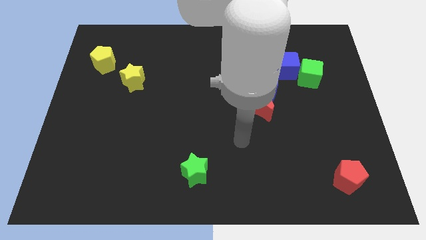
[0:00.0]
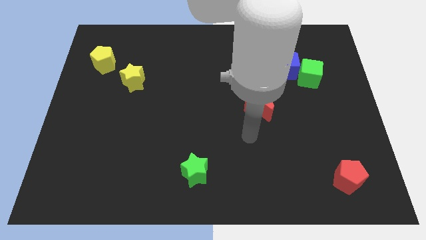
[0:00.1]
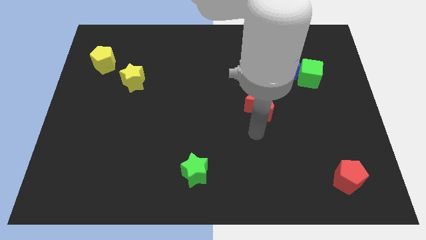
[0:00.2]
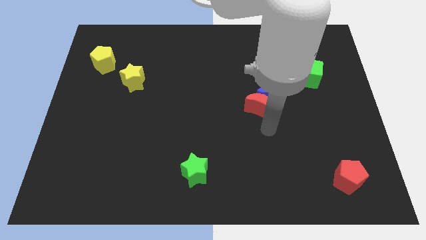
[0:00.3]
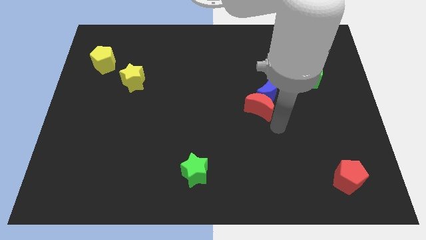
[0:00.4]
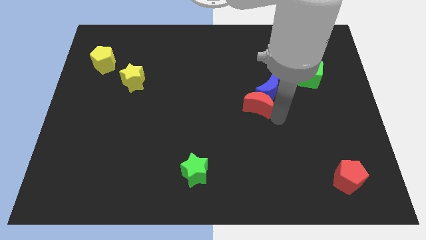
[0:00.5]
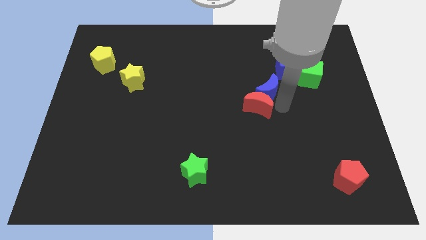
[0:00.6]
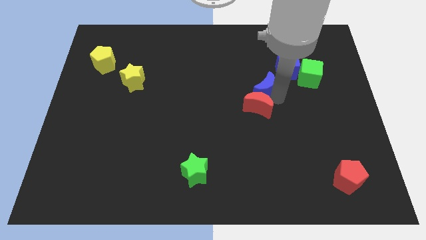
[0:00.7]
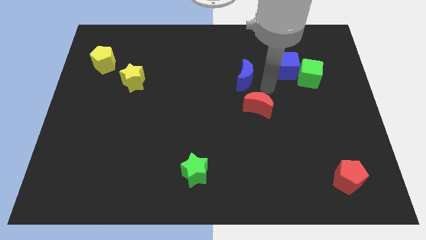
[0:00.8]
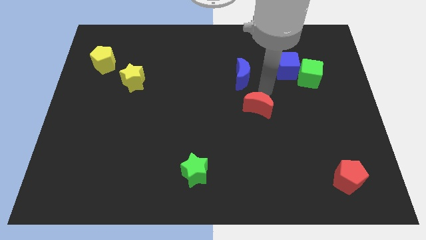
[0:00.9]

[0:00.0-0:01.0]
separate the red moon from the blue moon

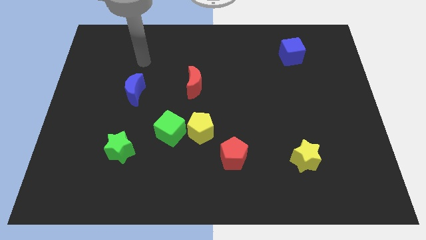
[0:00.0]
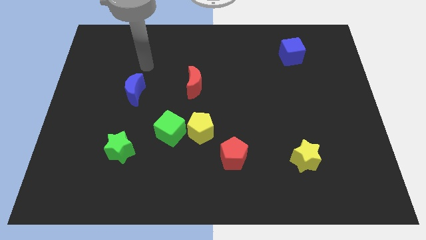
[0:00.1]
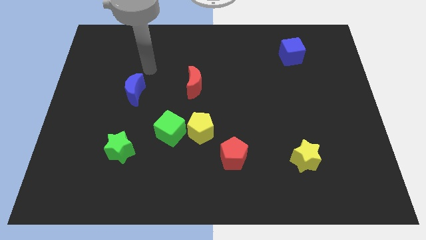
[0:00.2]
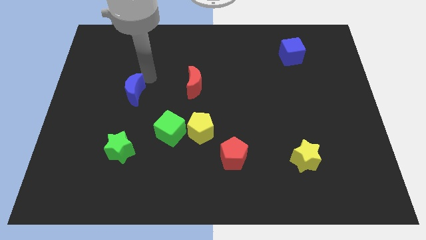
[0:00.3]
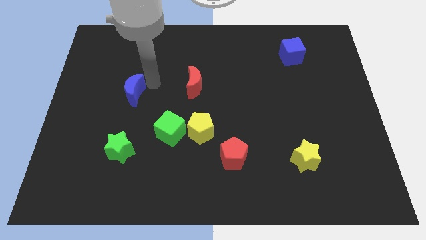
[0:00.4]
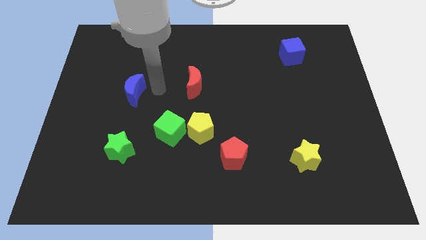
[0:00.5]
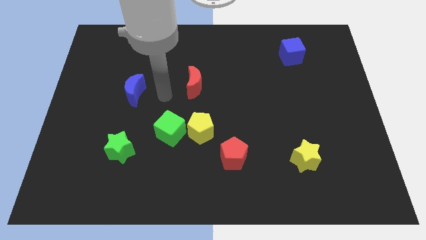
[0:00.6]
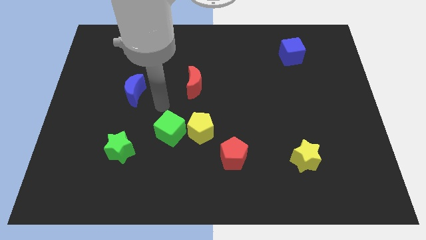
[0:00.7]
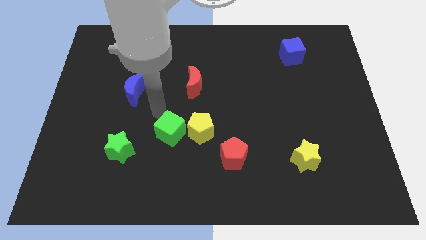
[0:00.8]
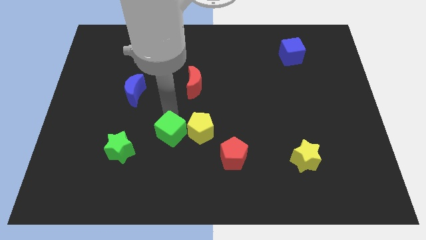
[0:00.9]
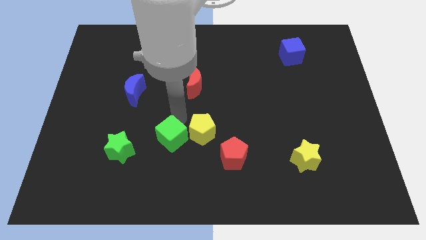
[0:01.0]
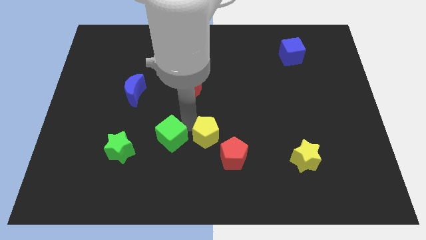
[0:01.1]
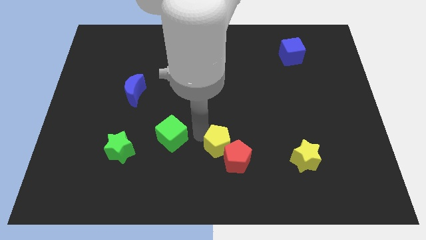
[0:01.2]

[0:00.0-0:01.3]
move the green cube away from the yellow pentagon

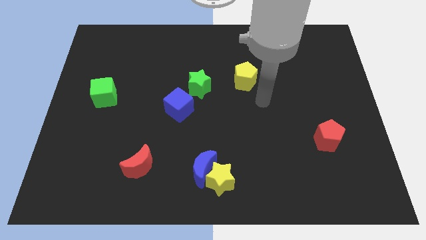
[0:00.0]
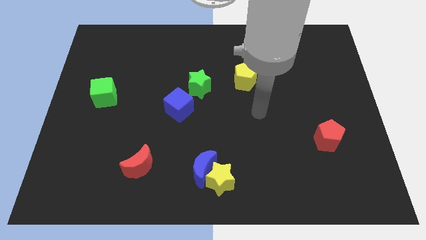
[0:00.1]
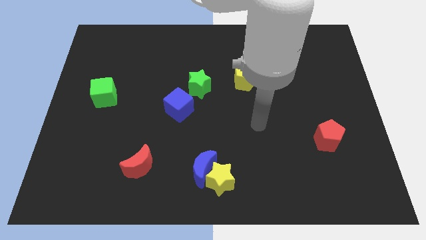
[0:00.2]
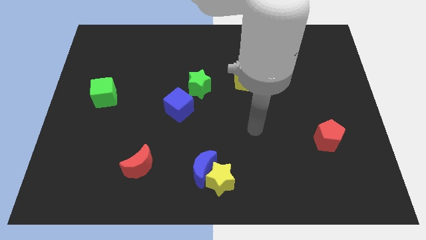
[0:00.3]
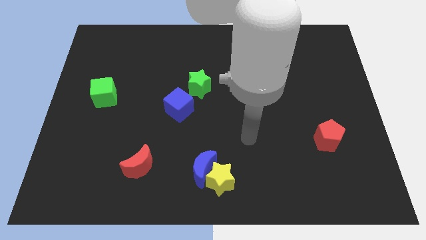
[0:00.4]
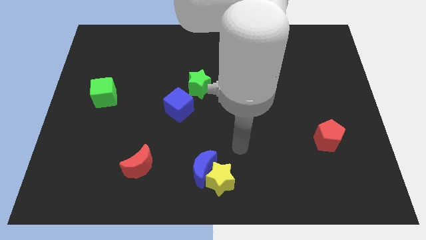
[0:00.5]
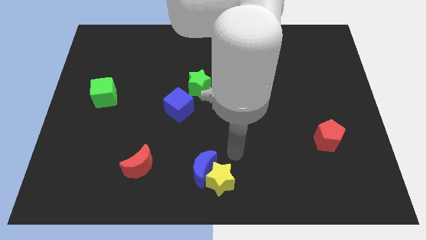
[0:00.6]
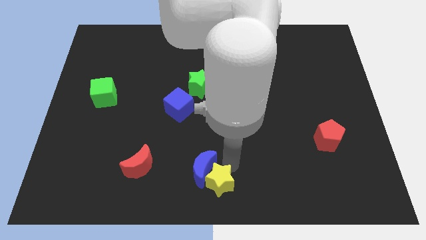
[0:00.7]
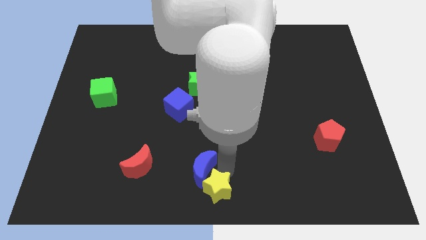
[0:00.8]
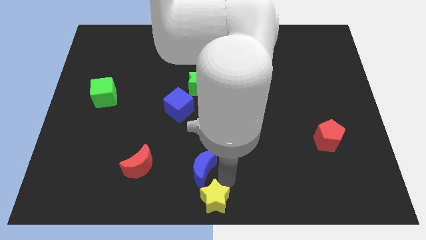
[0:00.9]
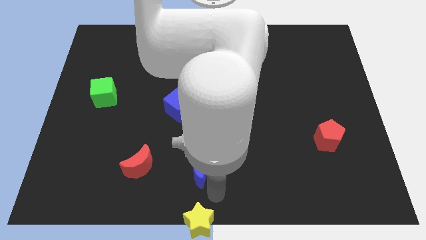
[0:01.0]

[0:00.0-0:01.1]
move the blue moon away from the yellow star

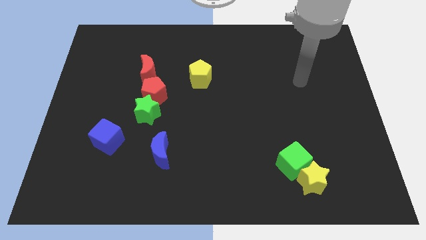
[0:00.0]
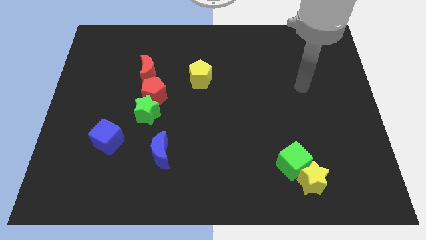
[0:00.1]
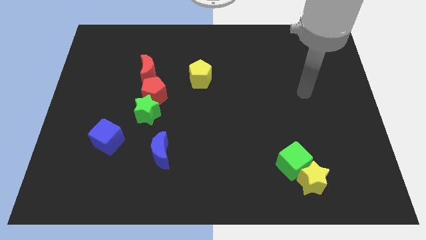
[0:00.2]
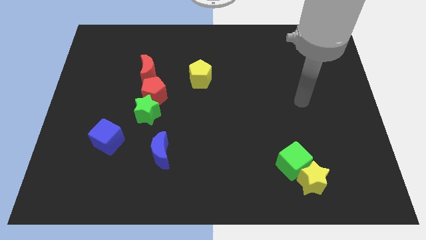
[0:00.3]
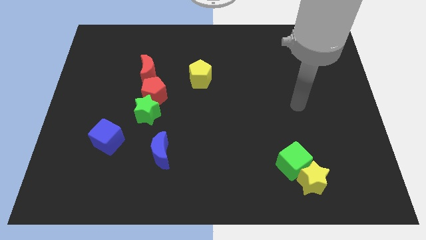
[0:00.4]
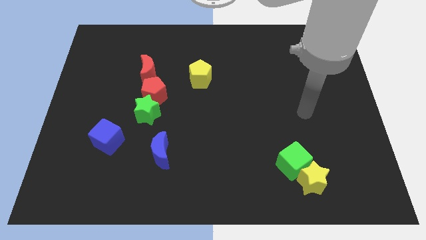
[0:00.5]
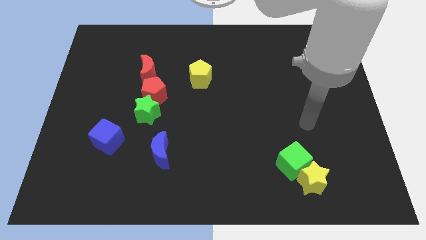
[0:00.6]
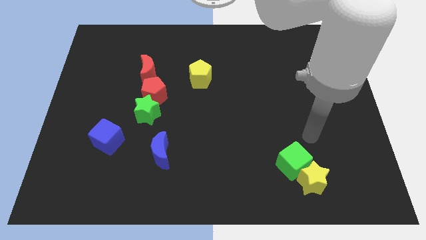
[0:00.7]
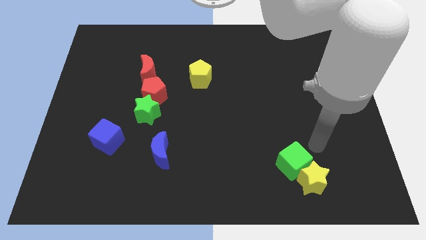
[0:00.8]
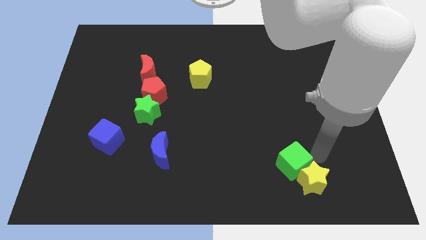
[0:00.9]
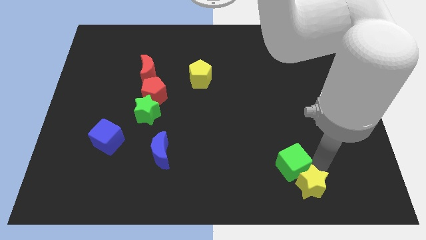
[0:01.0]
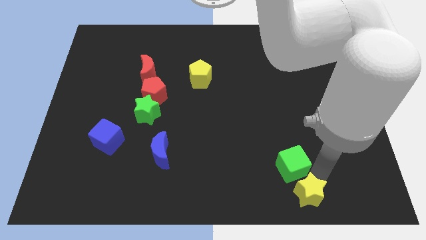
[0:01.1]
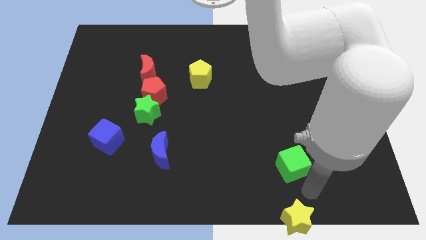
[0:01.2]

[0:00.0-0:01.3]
pull the green cube apart from the yellow star

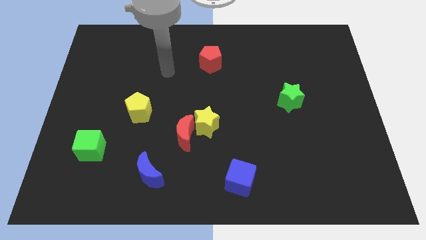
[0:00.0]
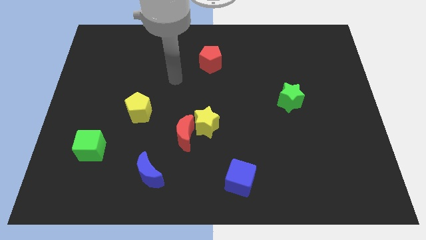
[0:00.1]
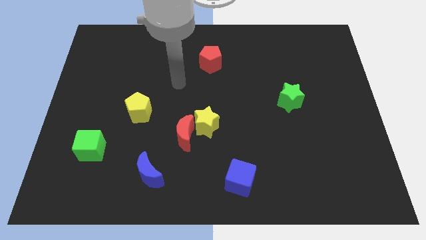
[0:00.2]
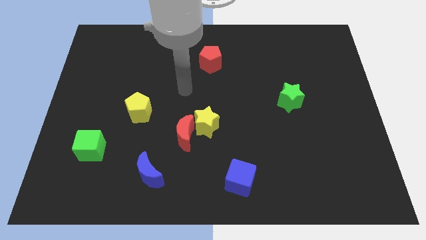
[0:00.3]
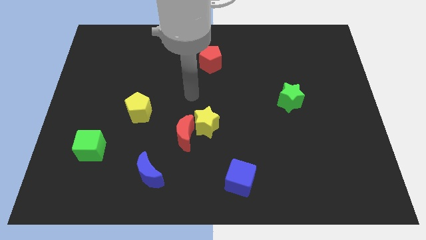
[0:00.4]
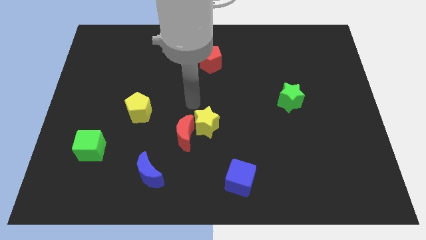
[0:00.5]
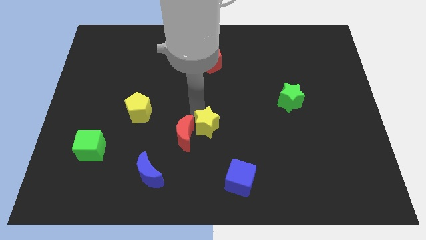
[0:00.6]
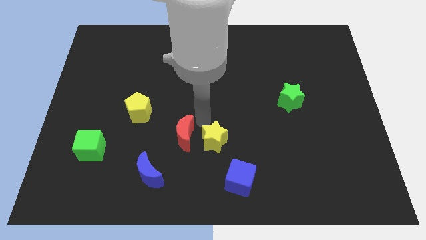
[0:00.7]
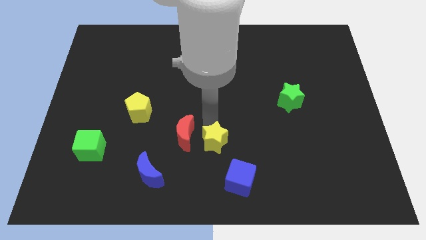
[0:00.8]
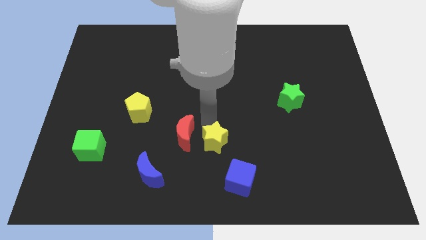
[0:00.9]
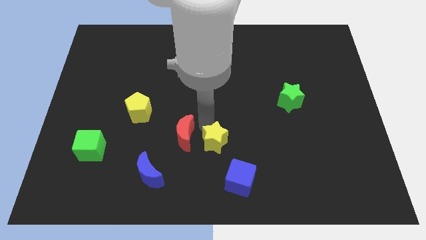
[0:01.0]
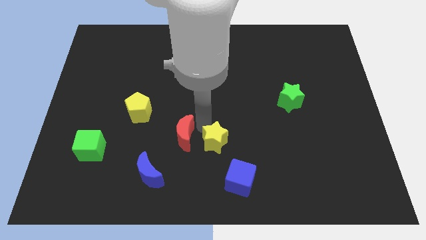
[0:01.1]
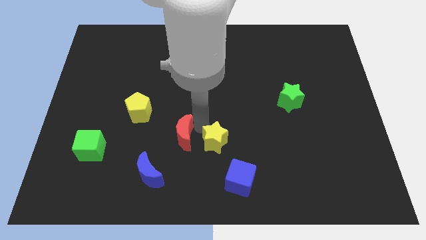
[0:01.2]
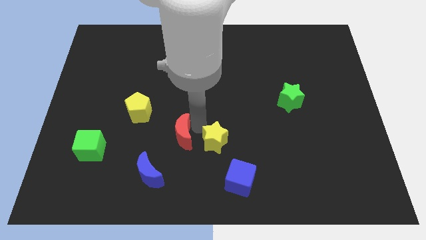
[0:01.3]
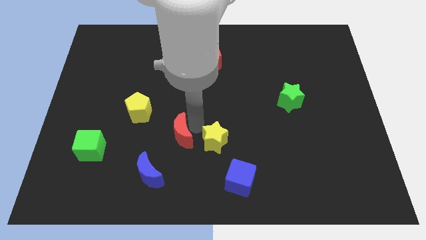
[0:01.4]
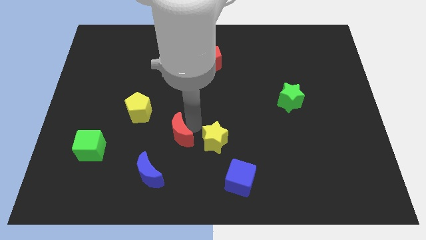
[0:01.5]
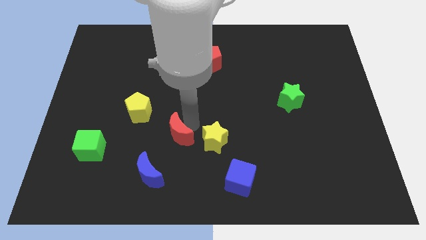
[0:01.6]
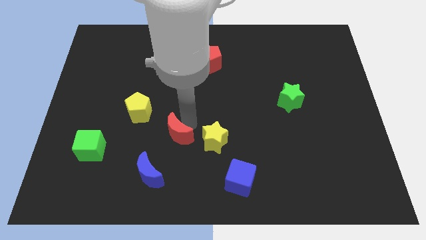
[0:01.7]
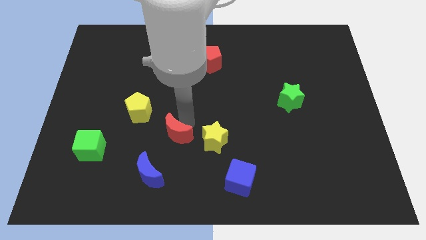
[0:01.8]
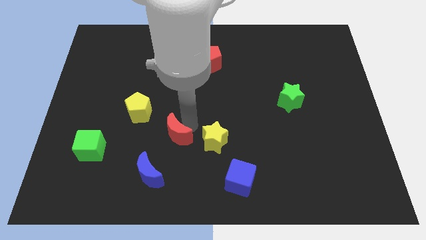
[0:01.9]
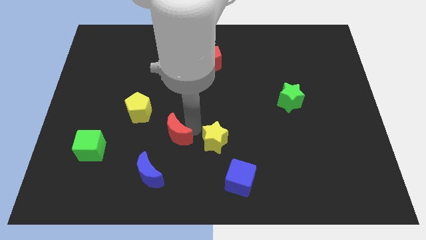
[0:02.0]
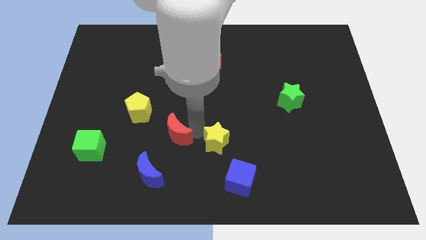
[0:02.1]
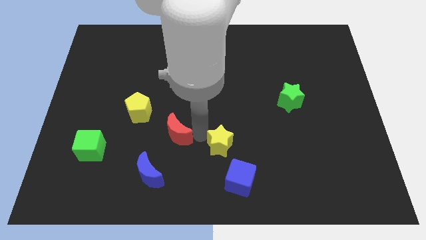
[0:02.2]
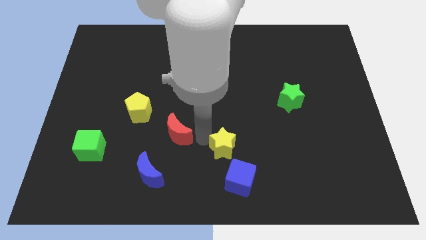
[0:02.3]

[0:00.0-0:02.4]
separate the red moon from the yellow star

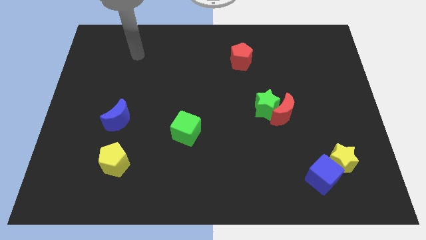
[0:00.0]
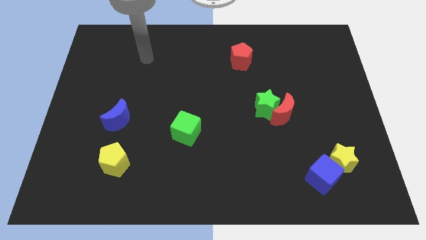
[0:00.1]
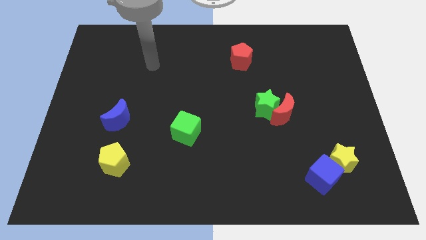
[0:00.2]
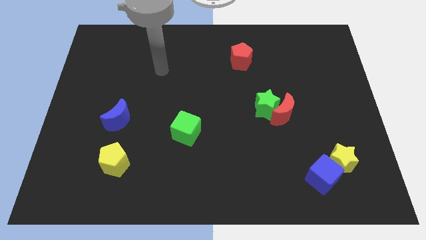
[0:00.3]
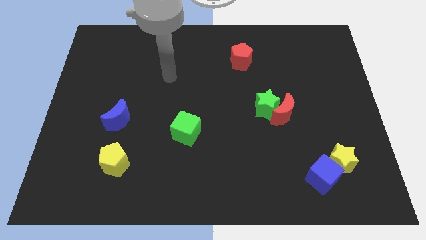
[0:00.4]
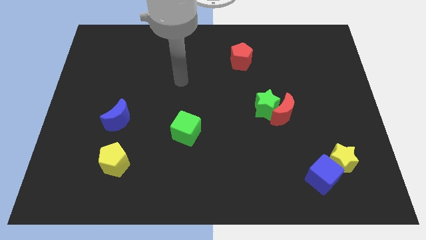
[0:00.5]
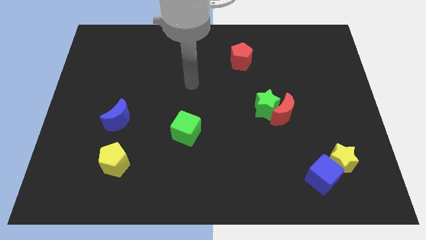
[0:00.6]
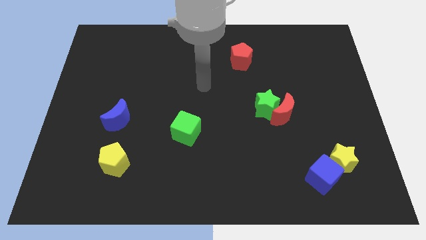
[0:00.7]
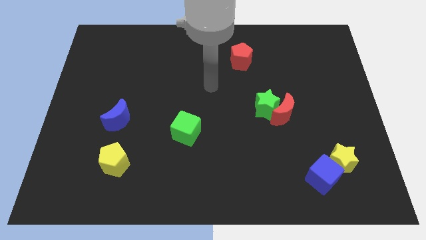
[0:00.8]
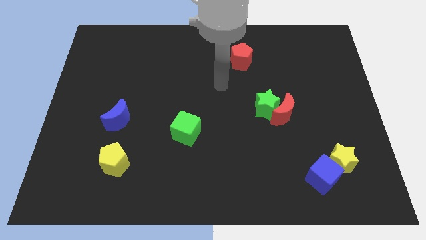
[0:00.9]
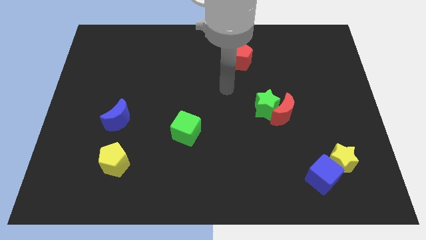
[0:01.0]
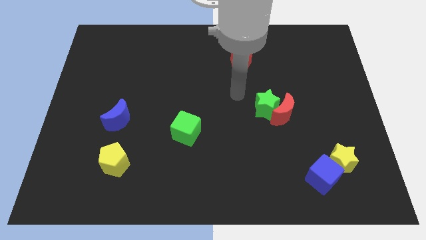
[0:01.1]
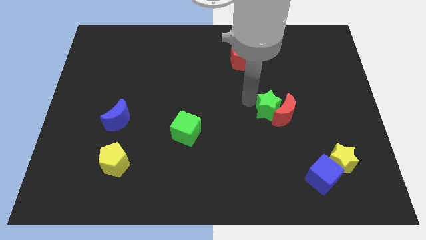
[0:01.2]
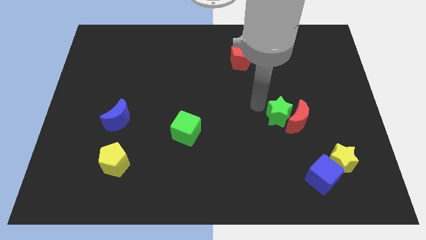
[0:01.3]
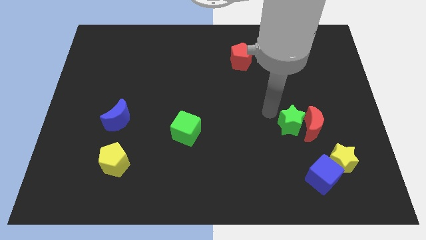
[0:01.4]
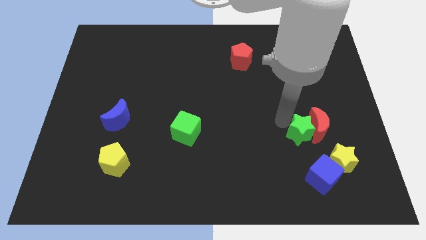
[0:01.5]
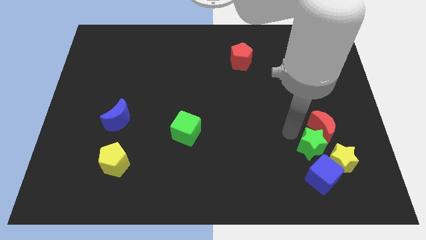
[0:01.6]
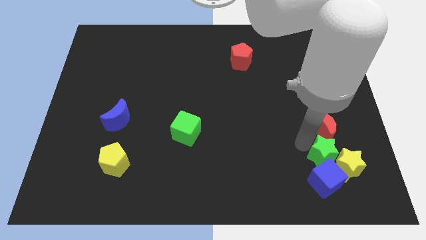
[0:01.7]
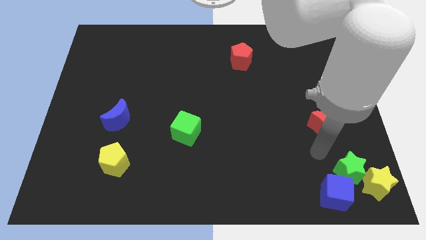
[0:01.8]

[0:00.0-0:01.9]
move the red moon away from the green star

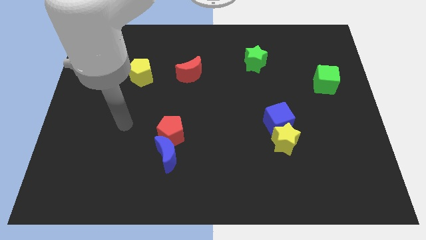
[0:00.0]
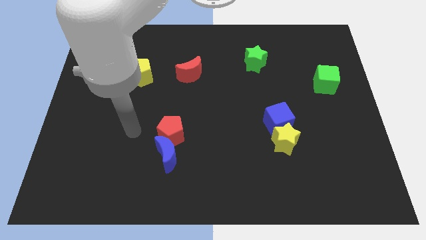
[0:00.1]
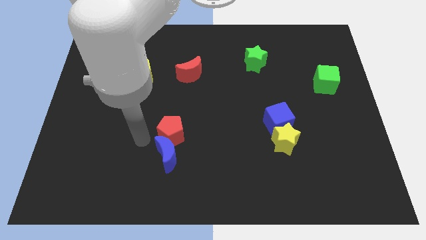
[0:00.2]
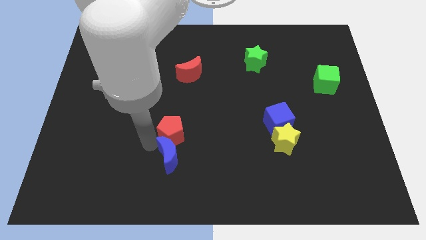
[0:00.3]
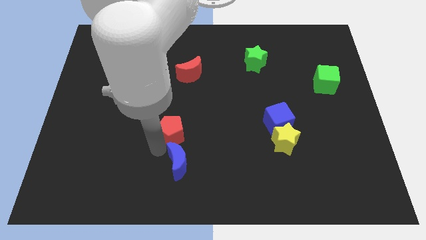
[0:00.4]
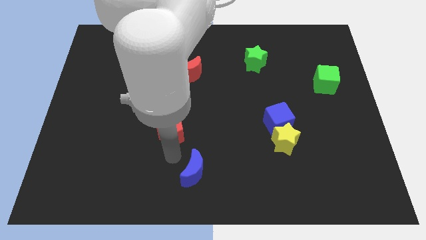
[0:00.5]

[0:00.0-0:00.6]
separate the red pentagon from the blue moon
